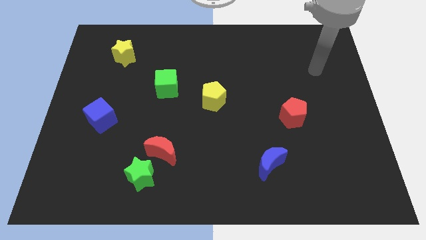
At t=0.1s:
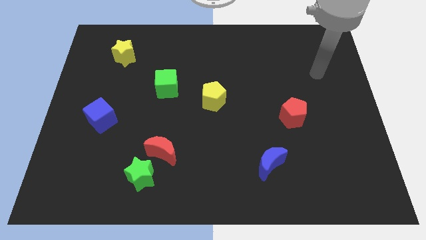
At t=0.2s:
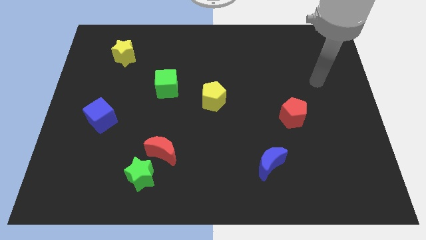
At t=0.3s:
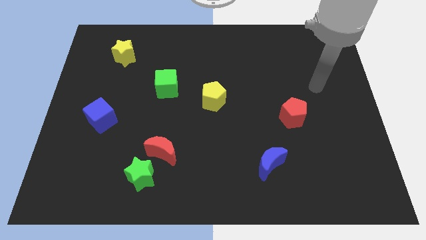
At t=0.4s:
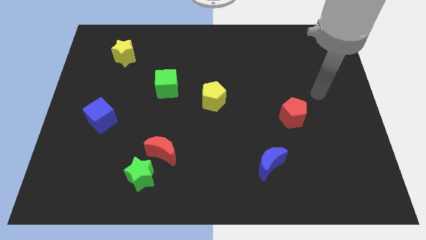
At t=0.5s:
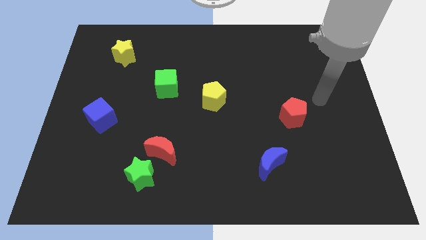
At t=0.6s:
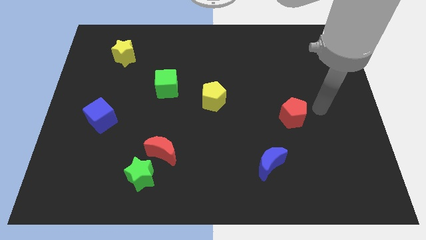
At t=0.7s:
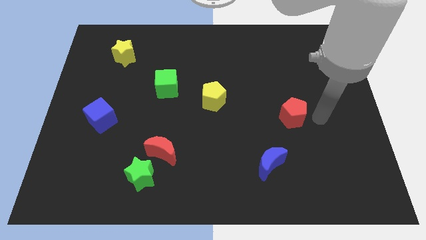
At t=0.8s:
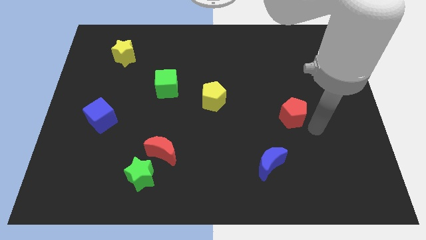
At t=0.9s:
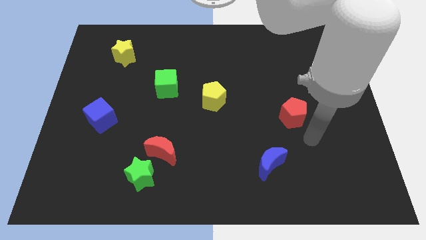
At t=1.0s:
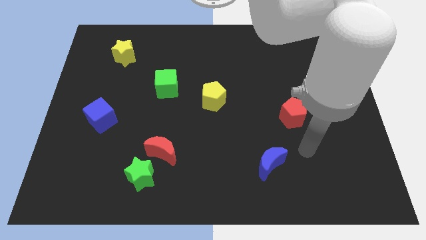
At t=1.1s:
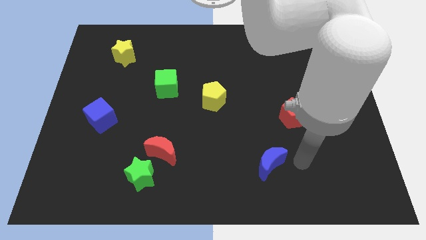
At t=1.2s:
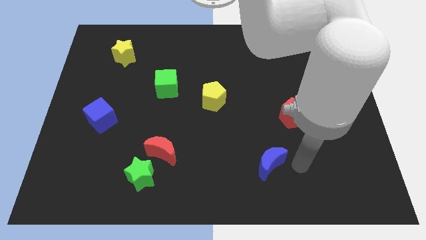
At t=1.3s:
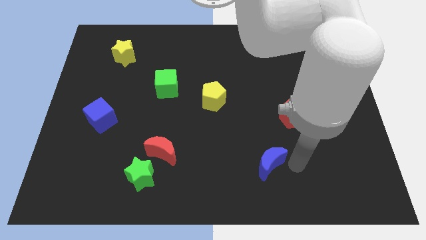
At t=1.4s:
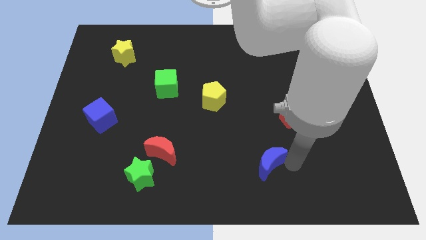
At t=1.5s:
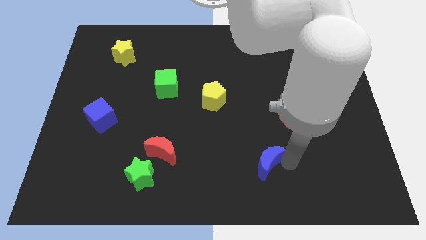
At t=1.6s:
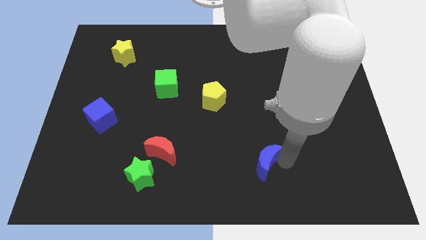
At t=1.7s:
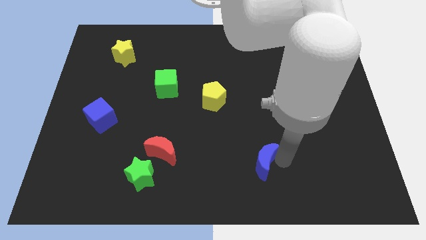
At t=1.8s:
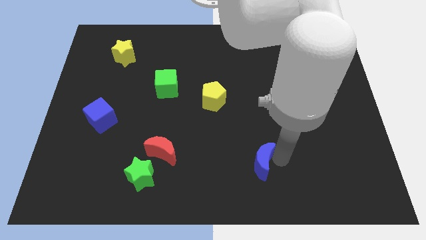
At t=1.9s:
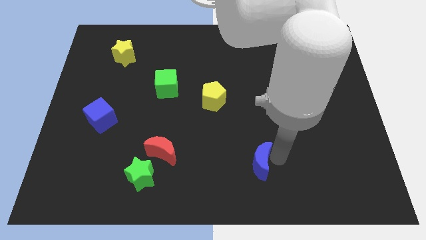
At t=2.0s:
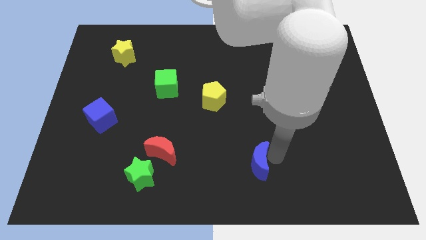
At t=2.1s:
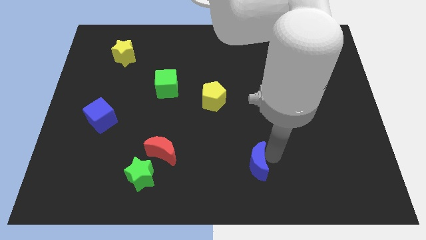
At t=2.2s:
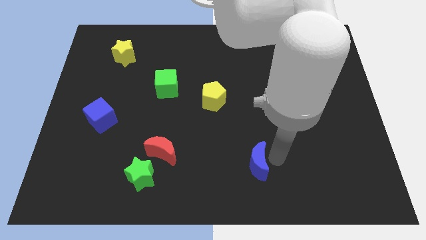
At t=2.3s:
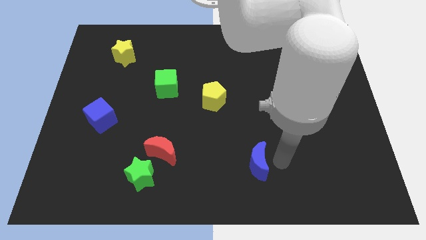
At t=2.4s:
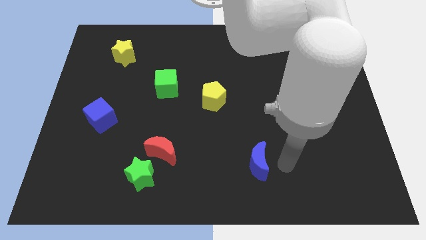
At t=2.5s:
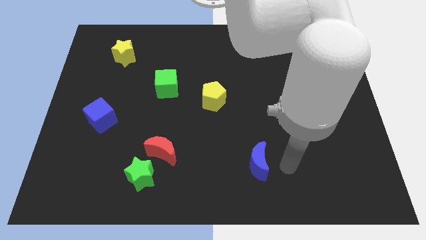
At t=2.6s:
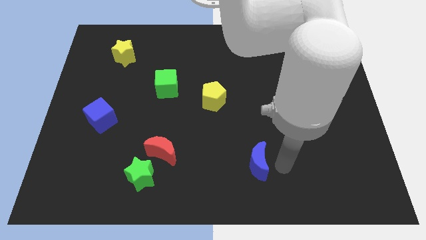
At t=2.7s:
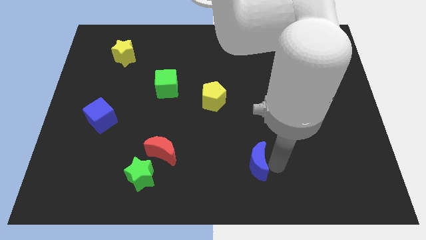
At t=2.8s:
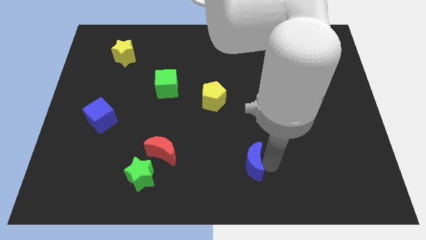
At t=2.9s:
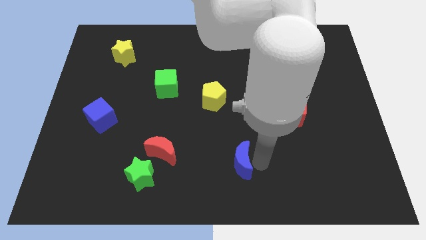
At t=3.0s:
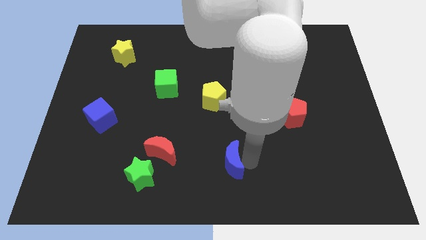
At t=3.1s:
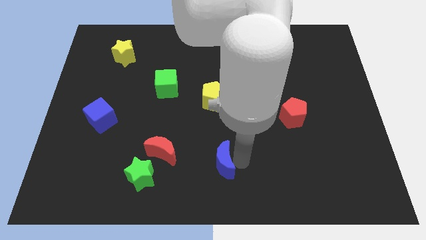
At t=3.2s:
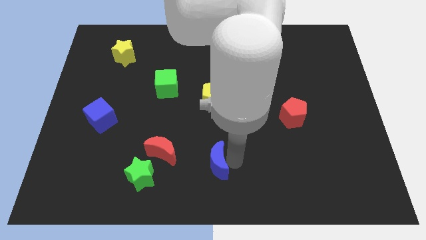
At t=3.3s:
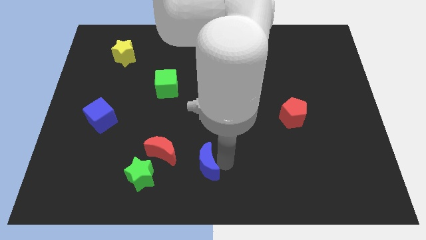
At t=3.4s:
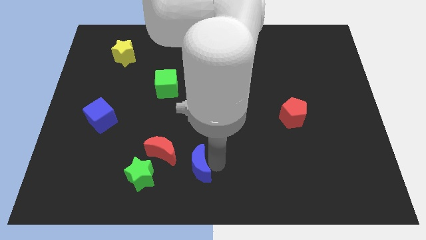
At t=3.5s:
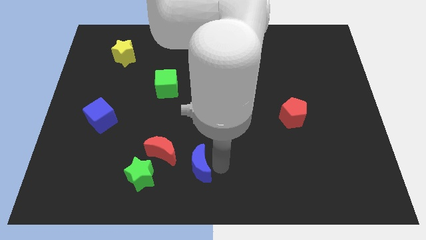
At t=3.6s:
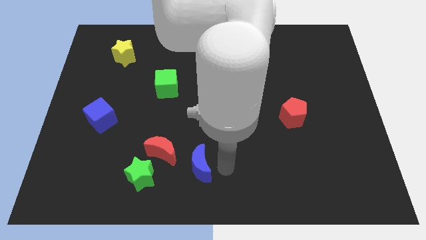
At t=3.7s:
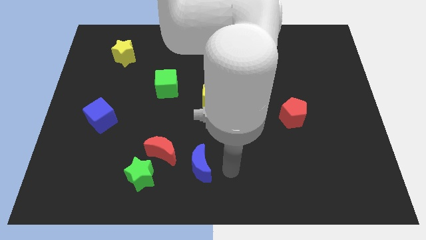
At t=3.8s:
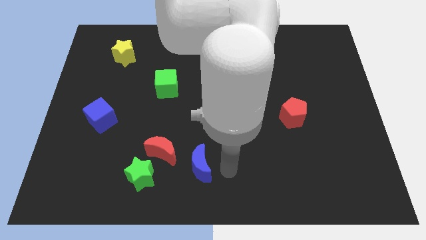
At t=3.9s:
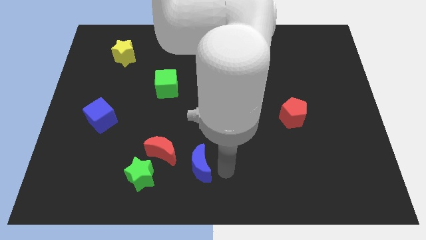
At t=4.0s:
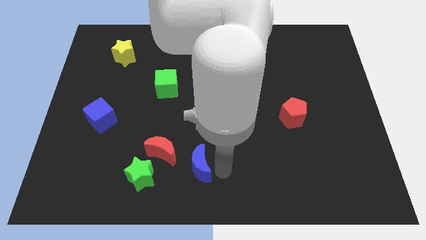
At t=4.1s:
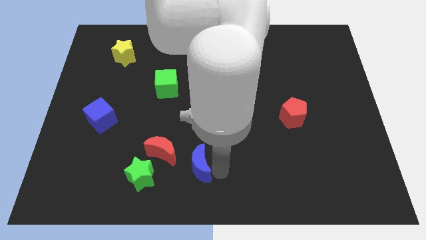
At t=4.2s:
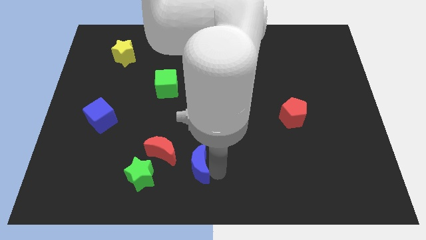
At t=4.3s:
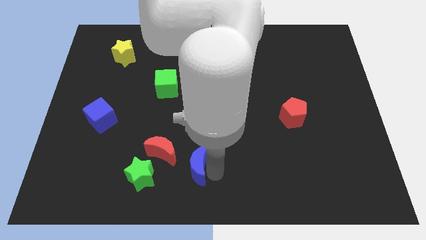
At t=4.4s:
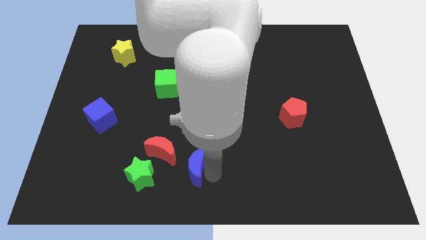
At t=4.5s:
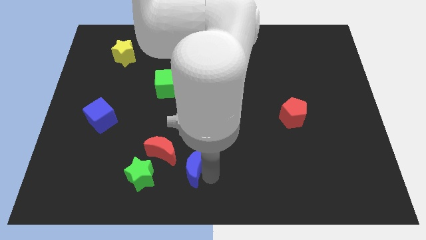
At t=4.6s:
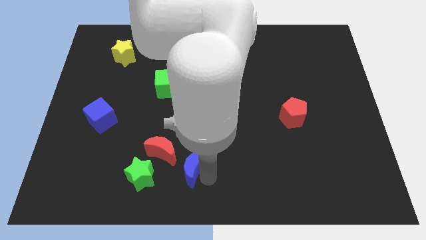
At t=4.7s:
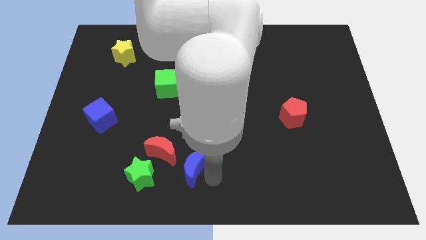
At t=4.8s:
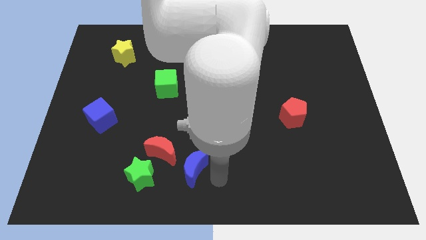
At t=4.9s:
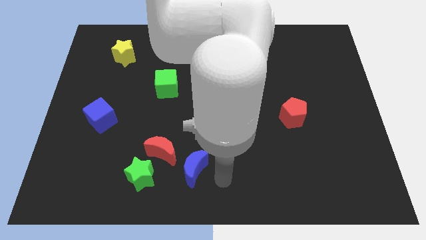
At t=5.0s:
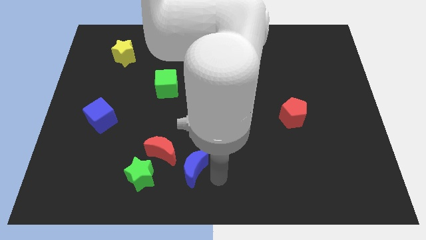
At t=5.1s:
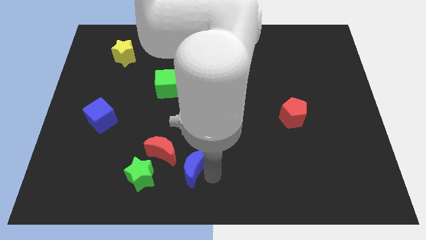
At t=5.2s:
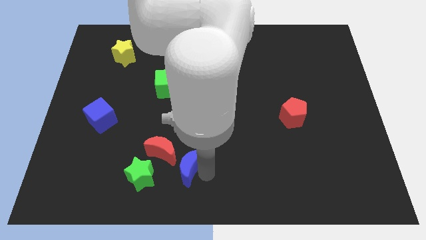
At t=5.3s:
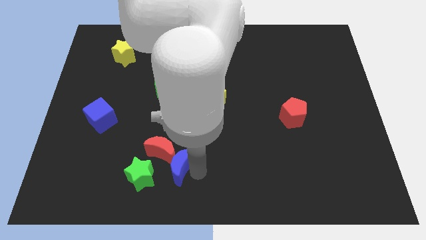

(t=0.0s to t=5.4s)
move the blue moon towards the red moon

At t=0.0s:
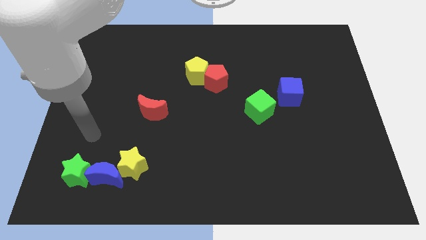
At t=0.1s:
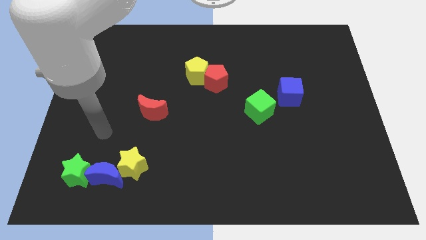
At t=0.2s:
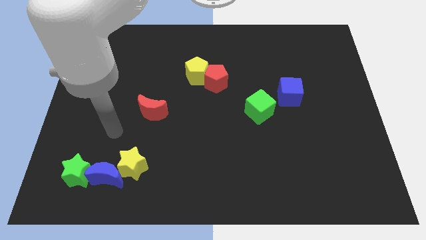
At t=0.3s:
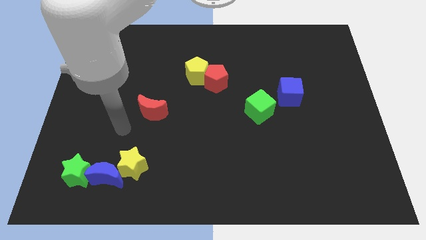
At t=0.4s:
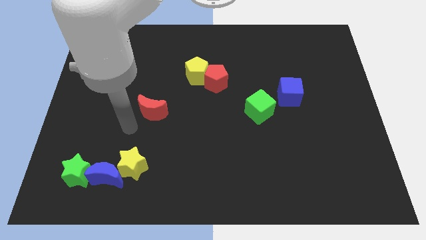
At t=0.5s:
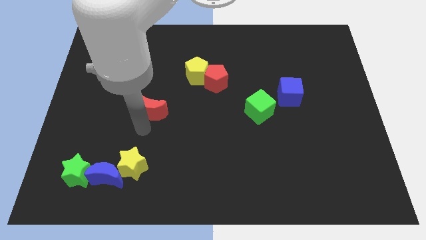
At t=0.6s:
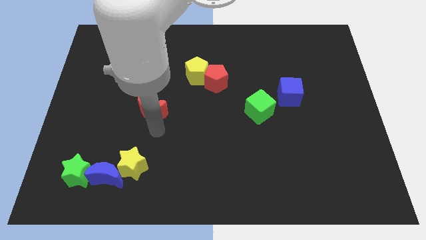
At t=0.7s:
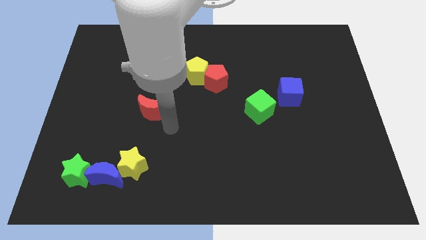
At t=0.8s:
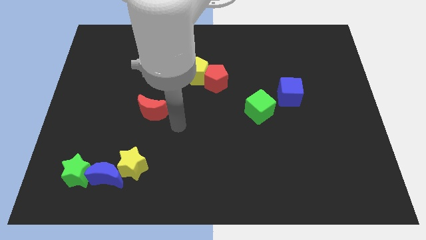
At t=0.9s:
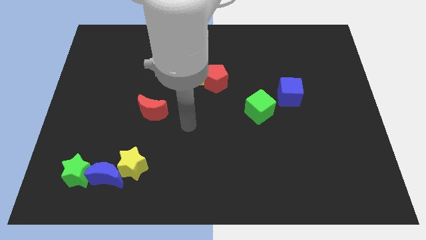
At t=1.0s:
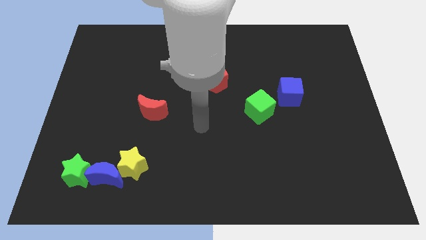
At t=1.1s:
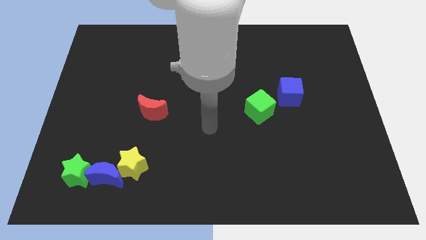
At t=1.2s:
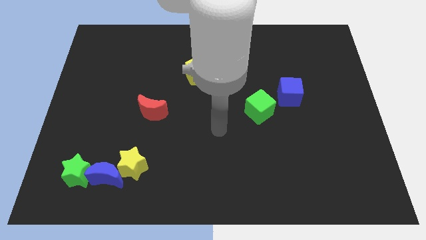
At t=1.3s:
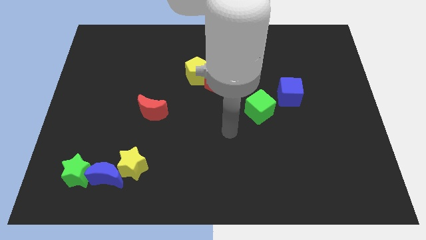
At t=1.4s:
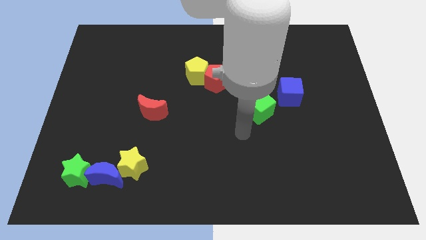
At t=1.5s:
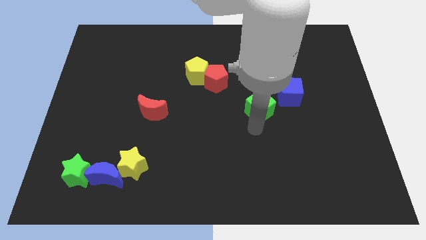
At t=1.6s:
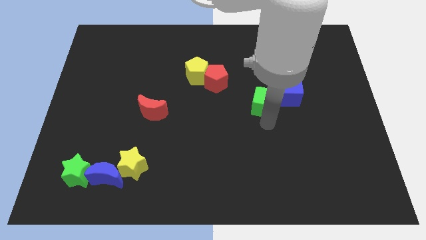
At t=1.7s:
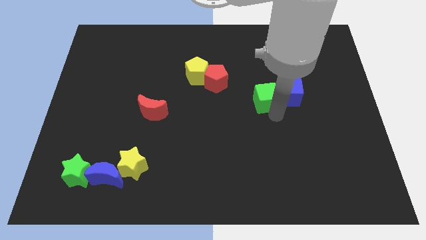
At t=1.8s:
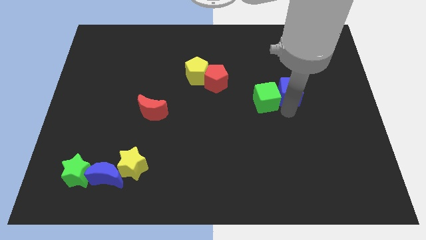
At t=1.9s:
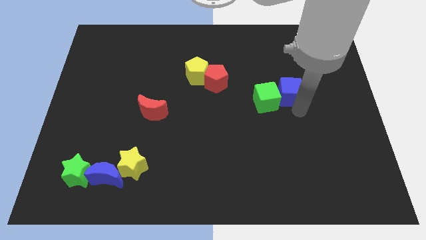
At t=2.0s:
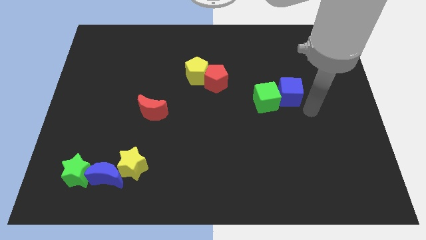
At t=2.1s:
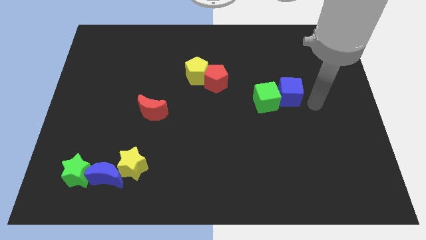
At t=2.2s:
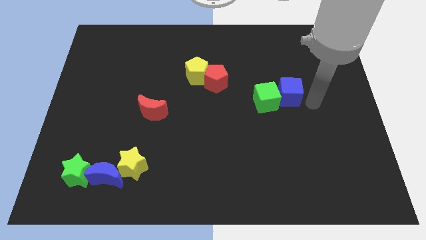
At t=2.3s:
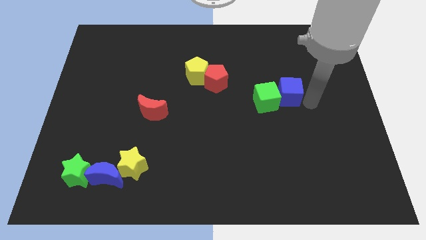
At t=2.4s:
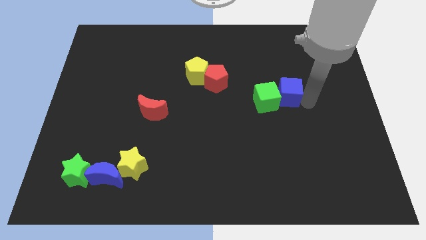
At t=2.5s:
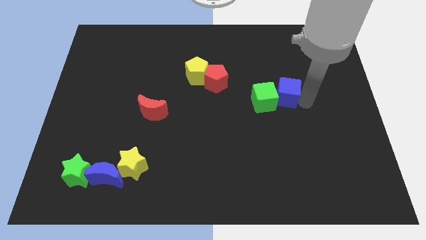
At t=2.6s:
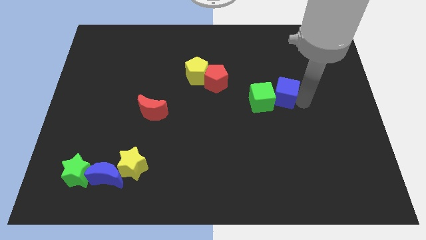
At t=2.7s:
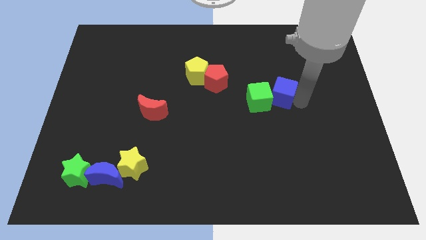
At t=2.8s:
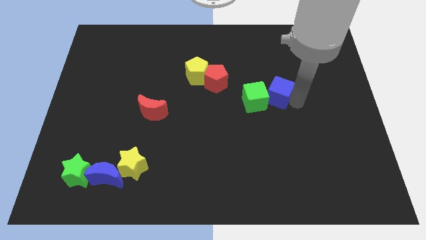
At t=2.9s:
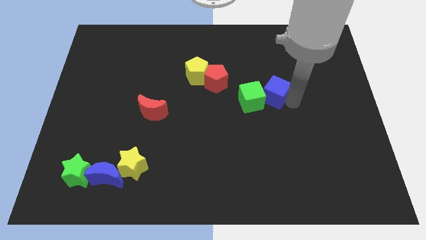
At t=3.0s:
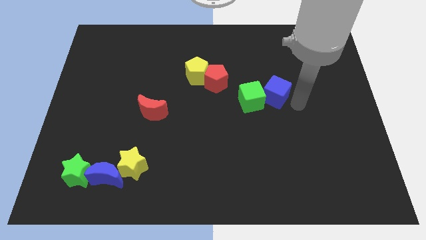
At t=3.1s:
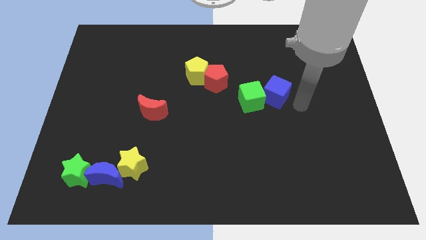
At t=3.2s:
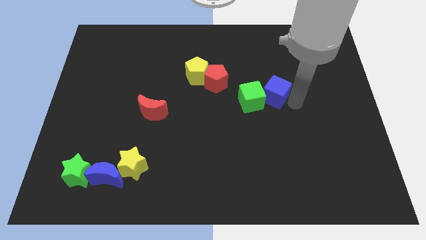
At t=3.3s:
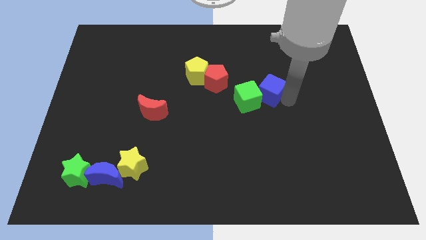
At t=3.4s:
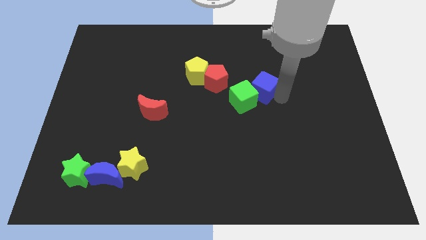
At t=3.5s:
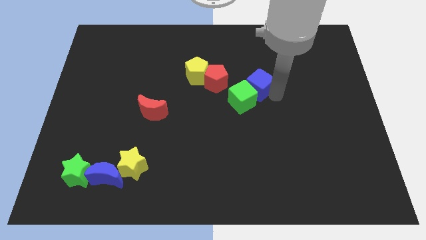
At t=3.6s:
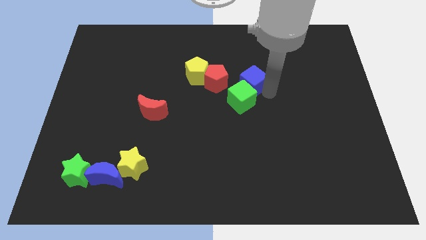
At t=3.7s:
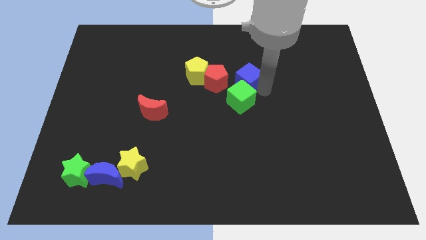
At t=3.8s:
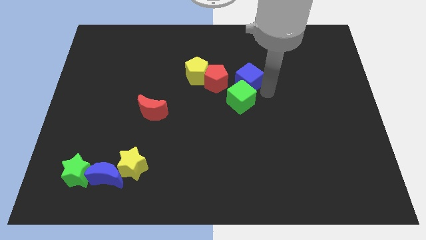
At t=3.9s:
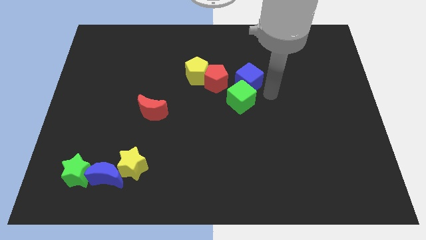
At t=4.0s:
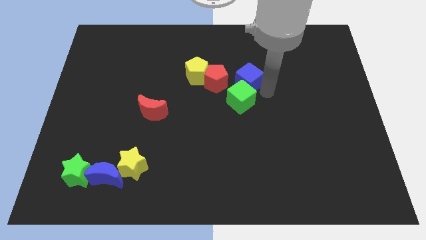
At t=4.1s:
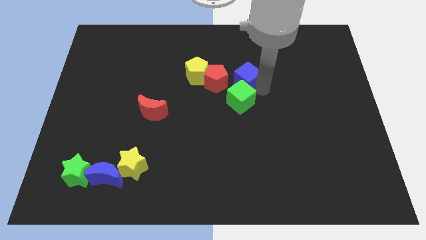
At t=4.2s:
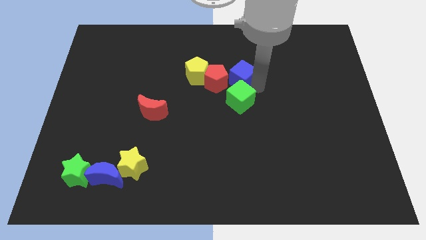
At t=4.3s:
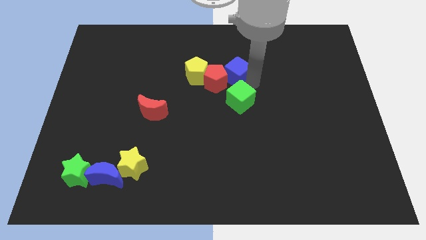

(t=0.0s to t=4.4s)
slide the blue cube close to the red pentagon
